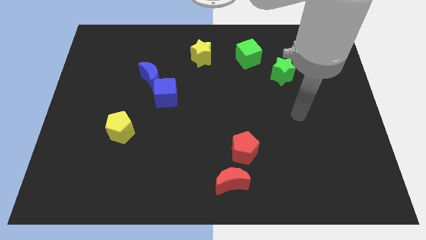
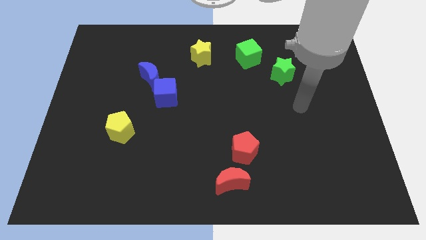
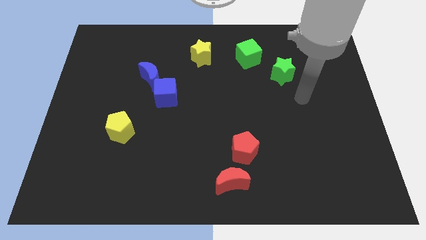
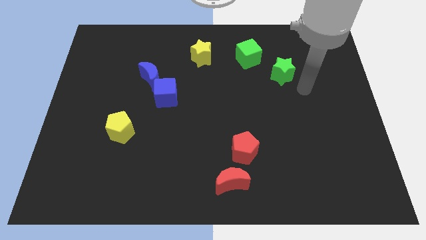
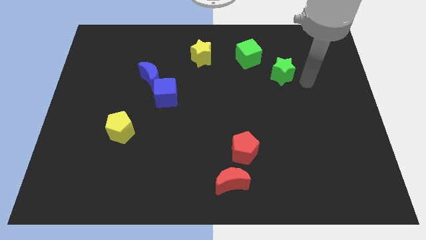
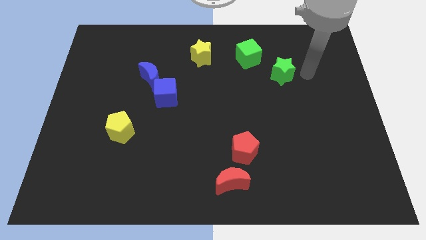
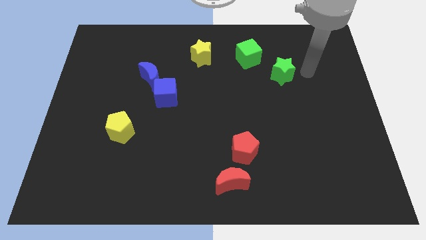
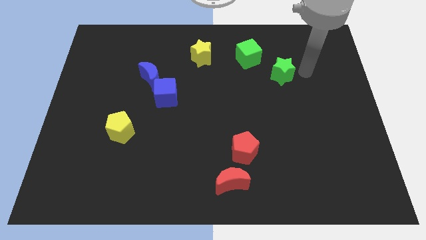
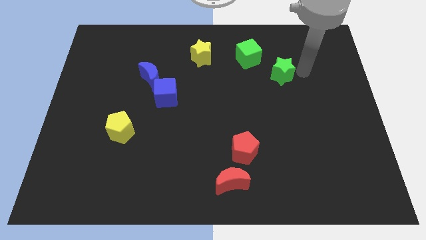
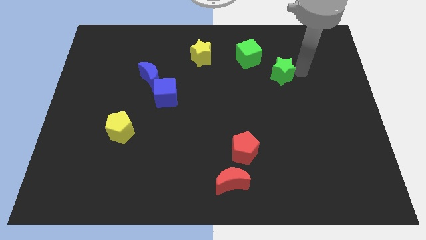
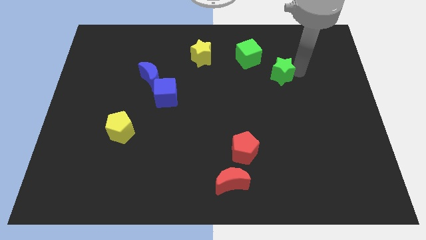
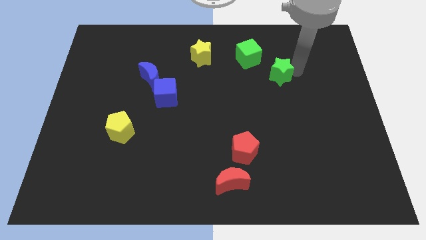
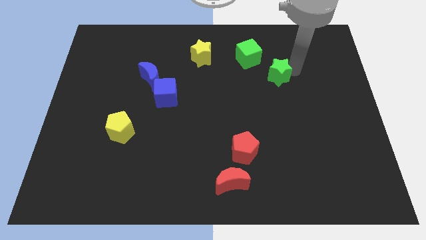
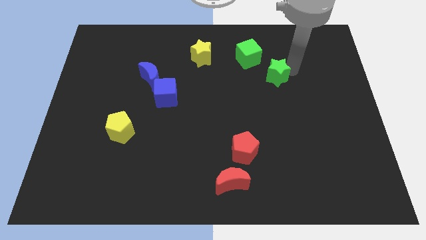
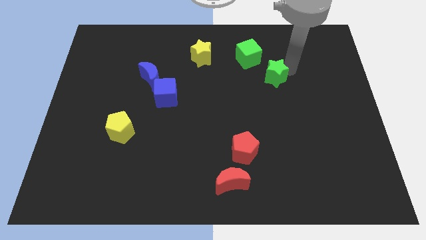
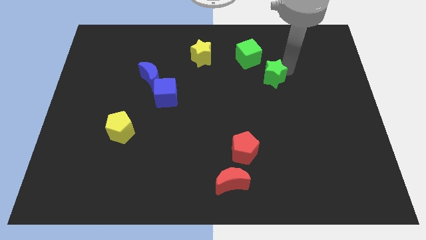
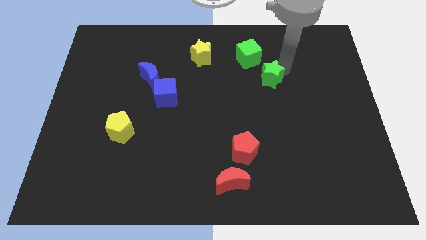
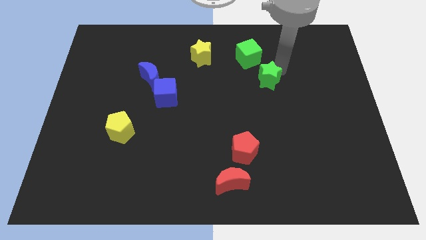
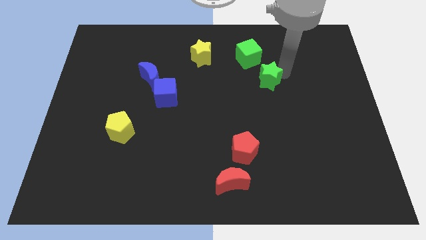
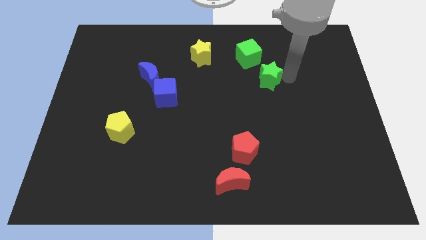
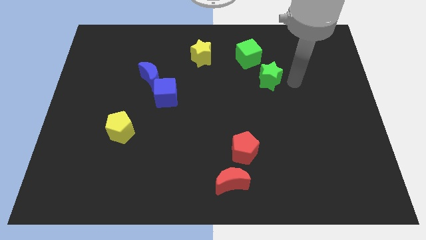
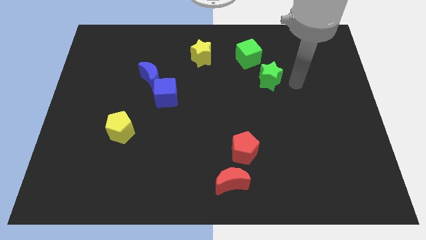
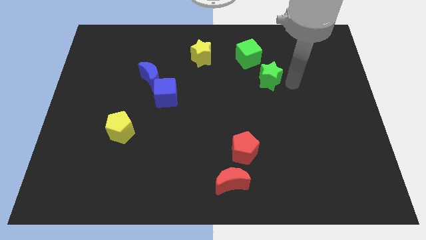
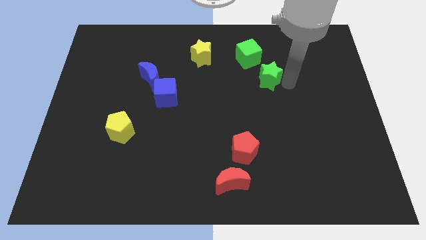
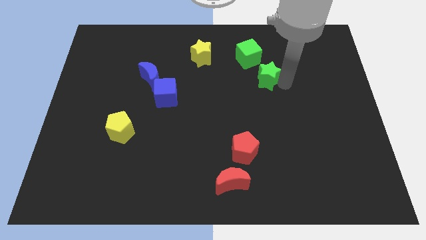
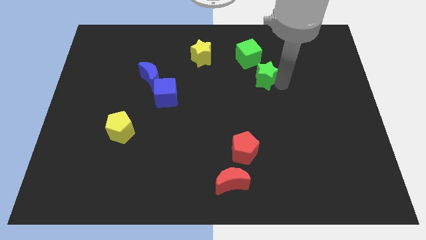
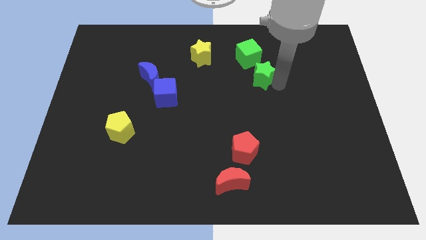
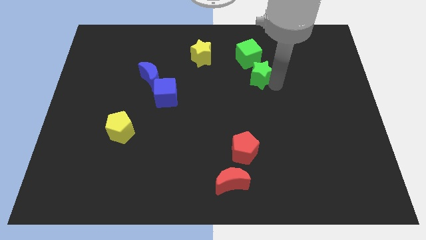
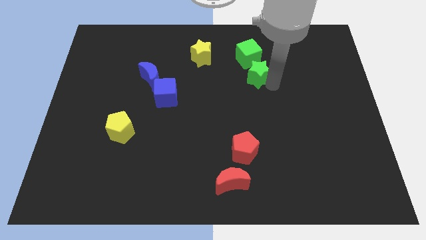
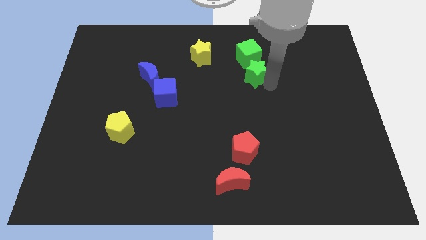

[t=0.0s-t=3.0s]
slightly push the green star to the left

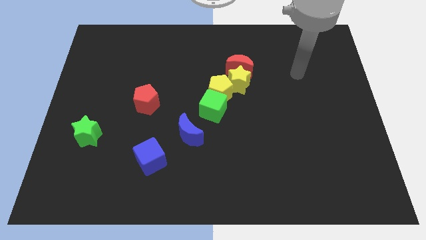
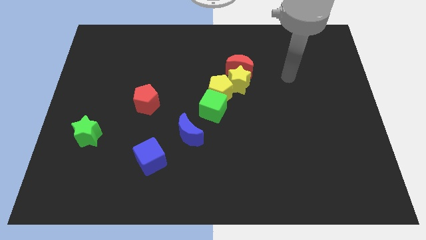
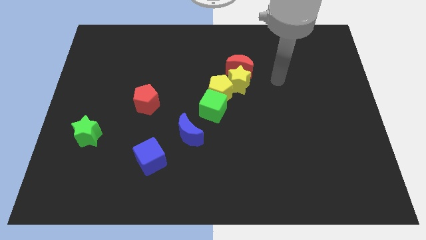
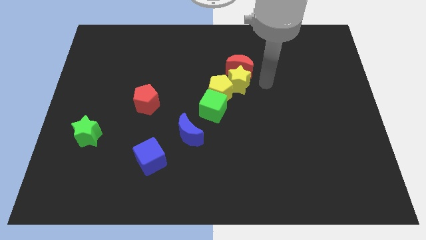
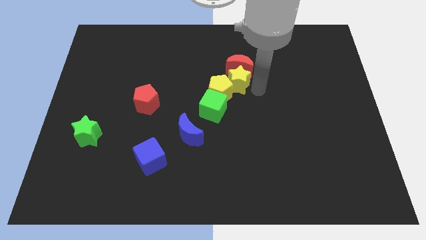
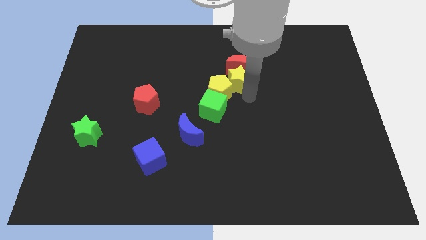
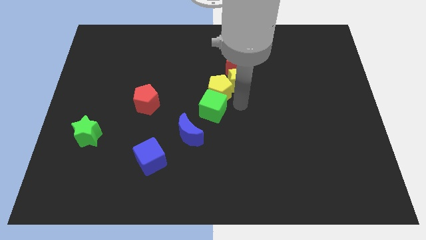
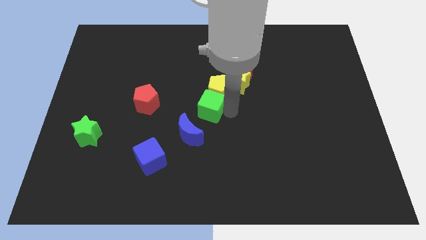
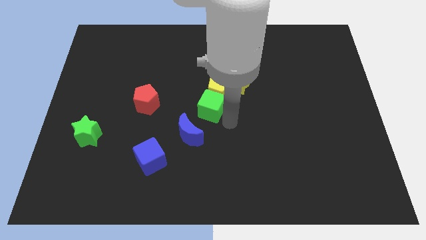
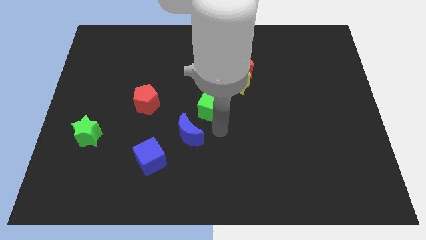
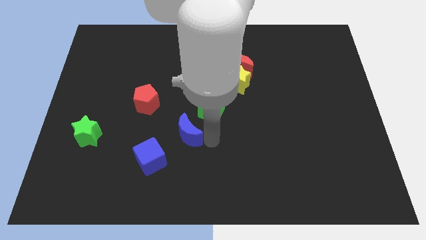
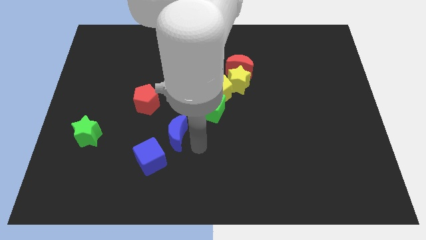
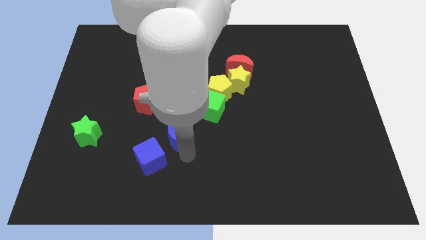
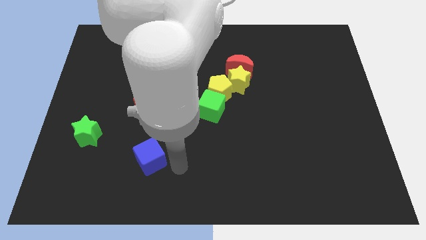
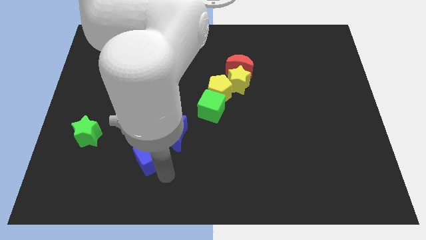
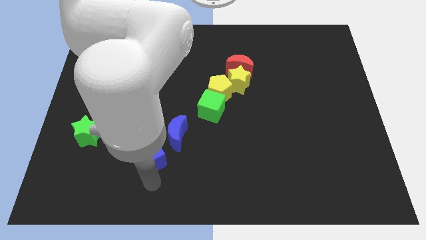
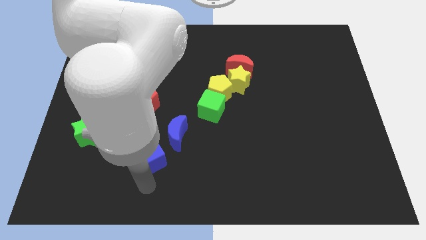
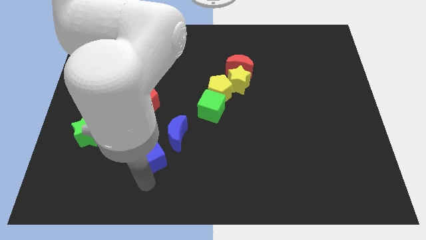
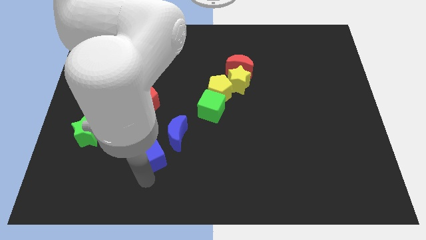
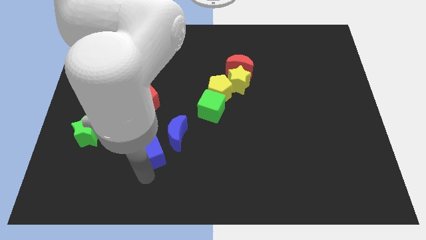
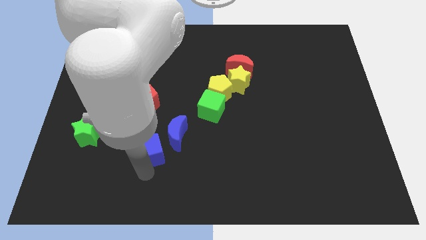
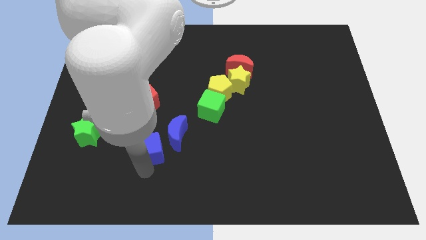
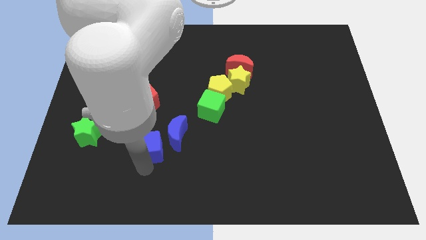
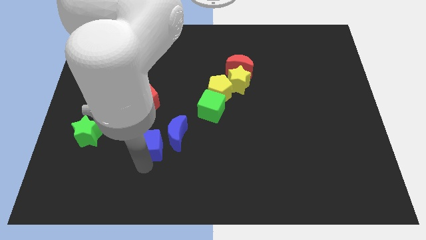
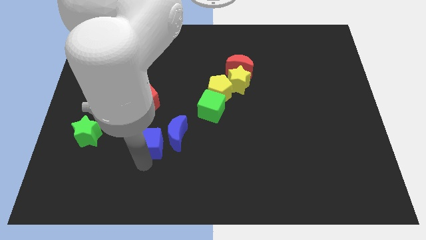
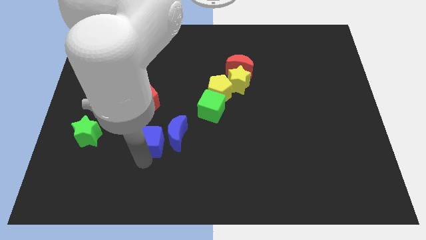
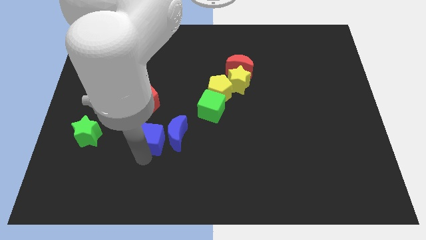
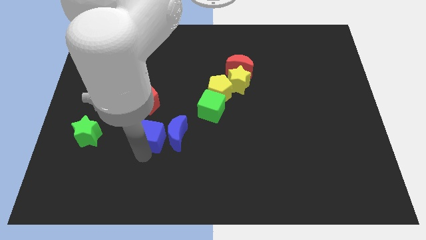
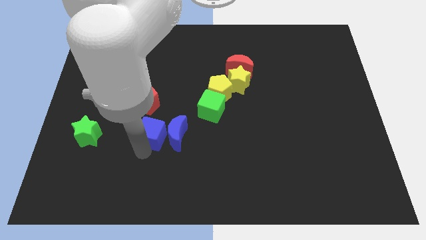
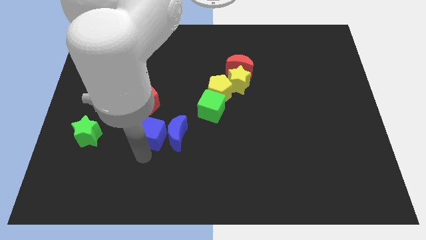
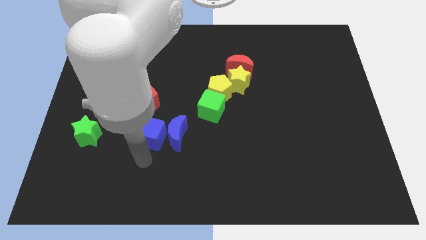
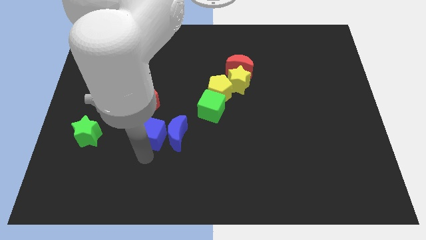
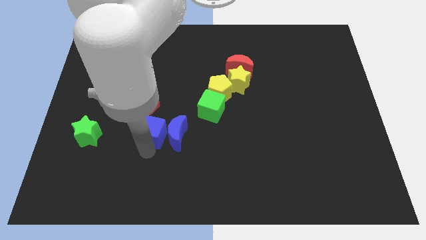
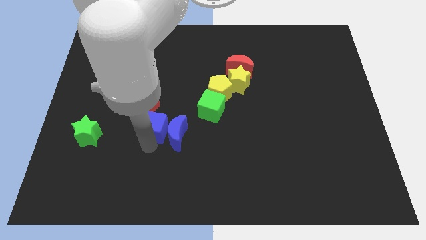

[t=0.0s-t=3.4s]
push the blue cube up slightly

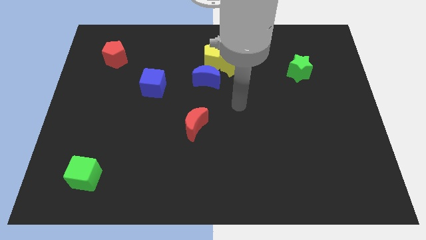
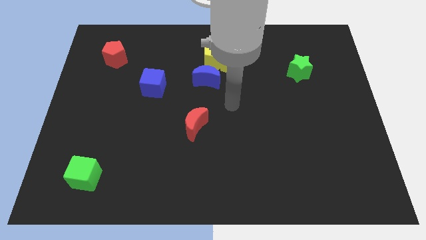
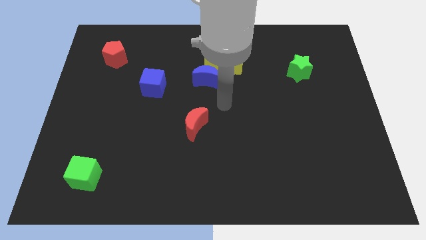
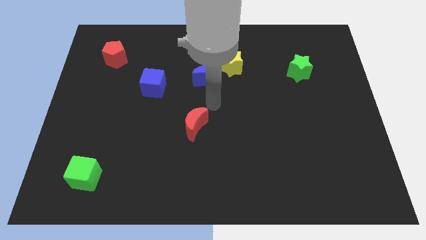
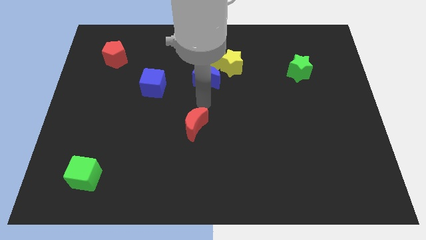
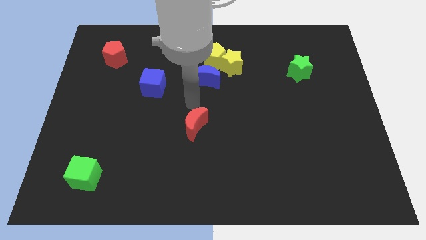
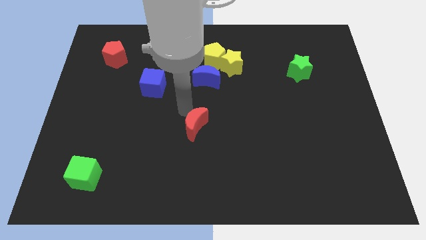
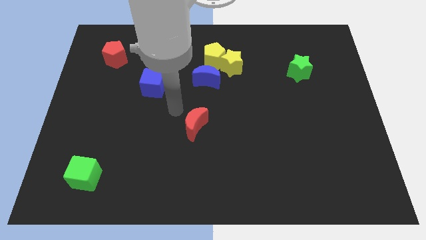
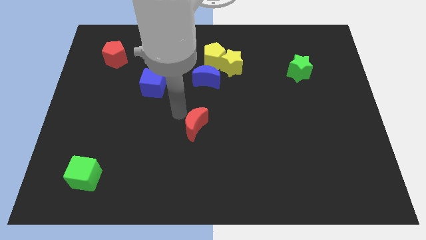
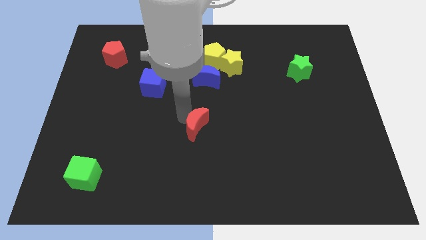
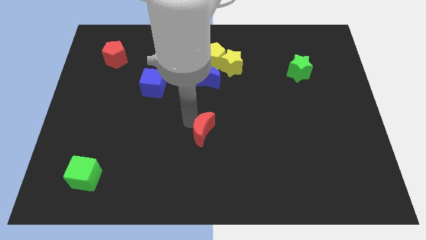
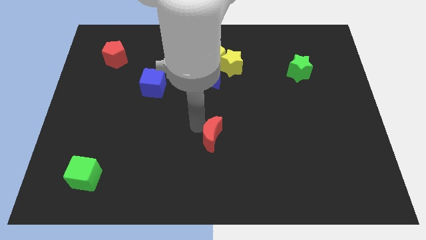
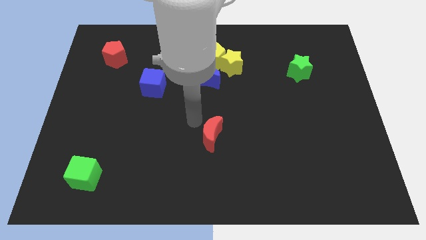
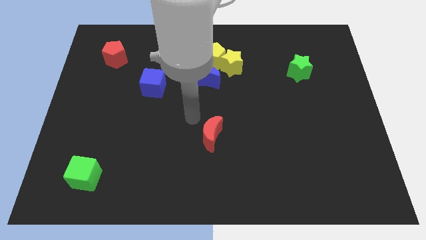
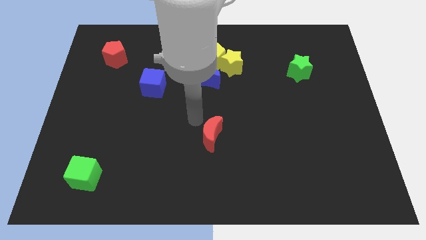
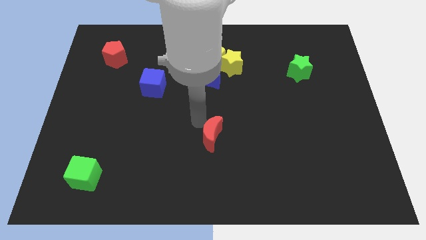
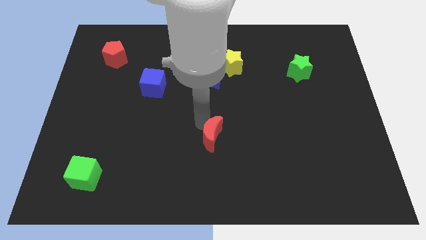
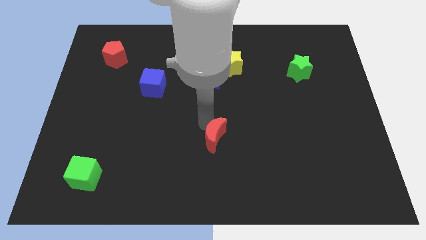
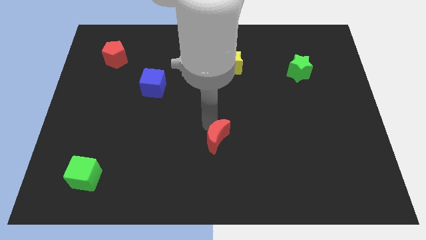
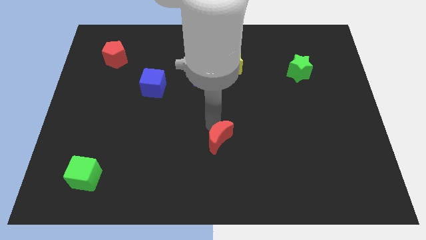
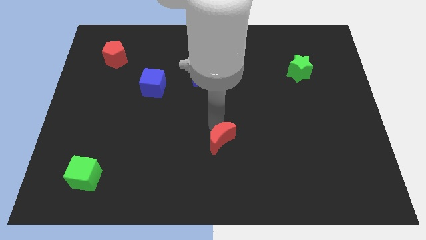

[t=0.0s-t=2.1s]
slide the red moon somewhat downwards and then right
